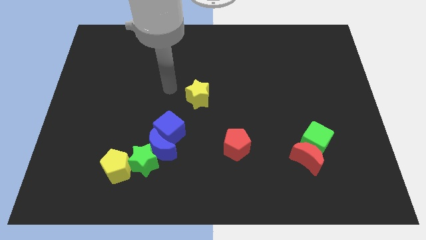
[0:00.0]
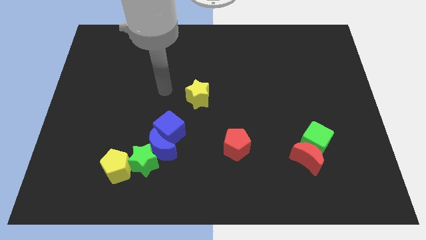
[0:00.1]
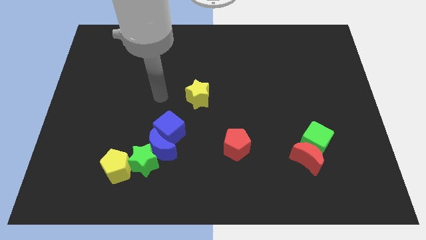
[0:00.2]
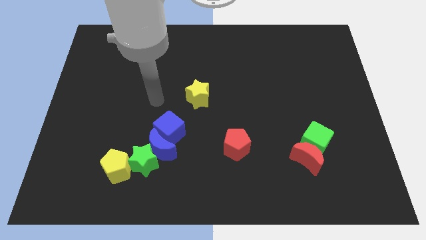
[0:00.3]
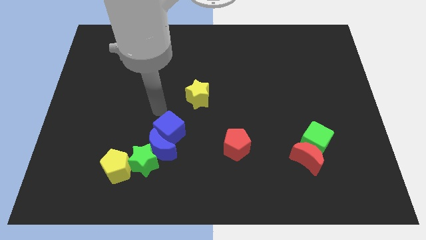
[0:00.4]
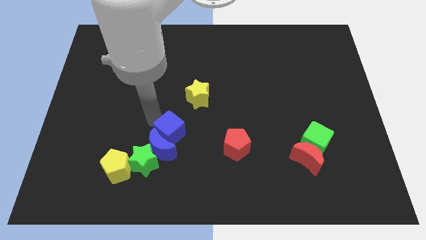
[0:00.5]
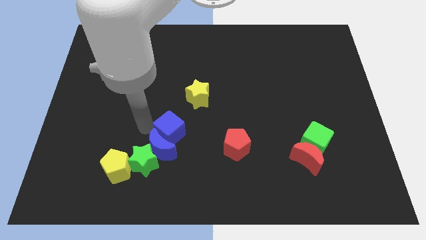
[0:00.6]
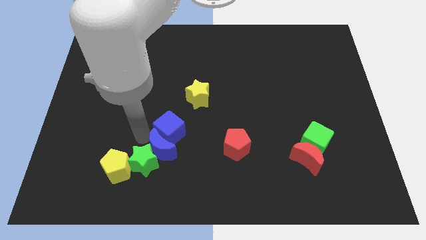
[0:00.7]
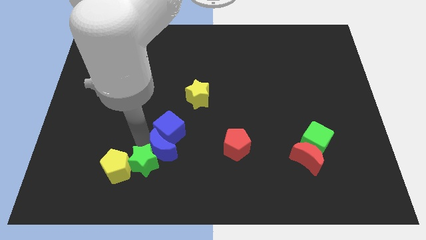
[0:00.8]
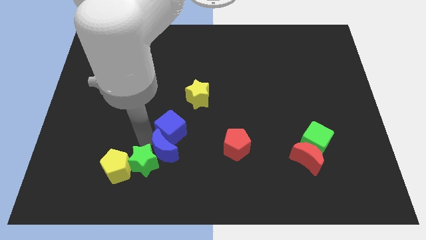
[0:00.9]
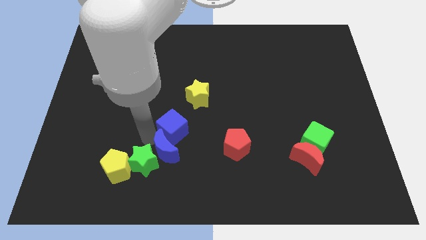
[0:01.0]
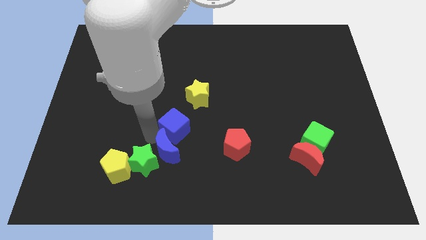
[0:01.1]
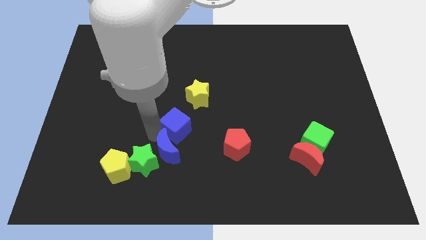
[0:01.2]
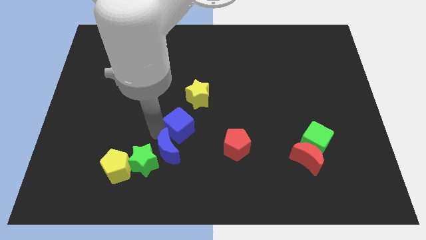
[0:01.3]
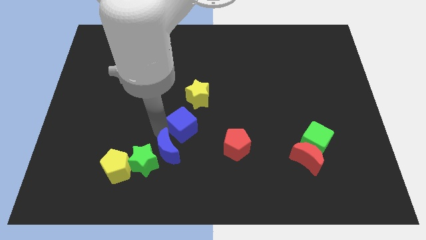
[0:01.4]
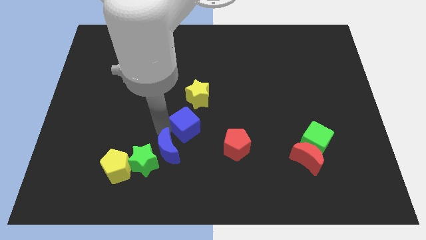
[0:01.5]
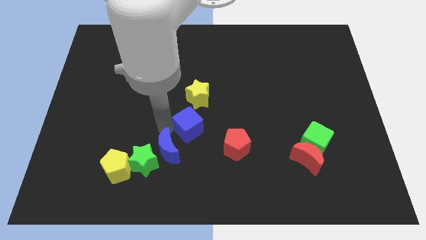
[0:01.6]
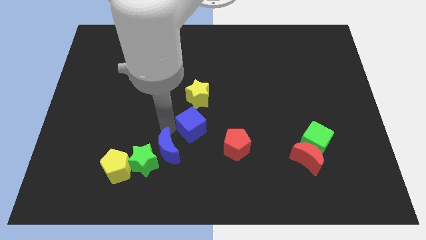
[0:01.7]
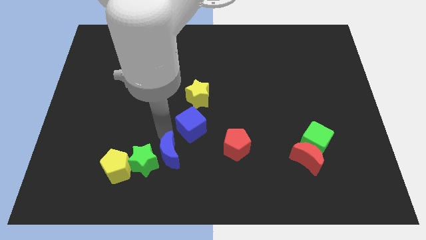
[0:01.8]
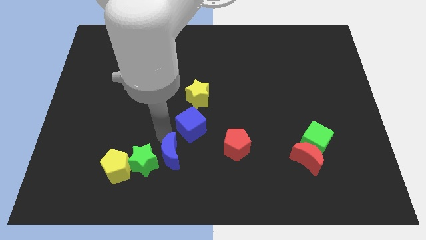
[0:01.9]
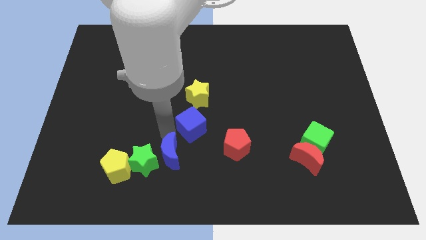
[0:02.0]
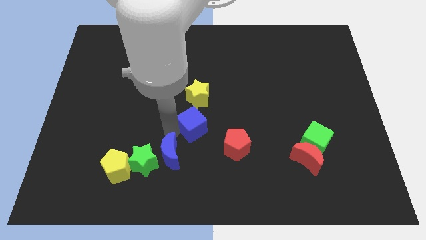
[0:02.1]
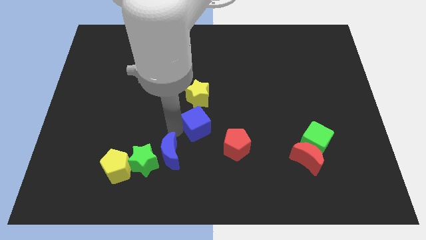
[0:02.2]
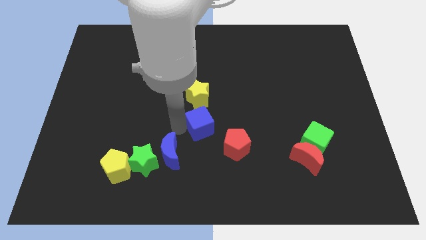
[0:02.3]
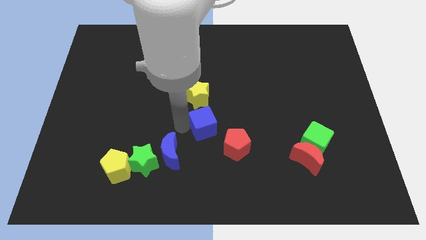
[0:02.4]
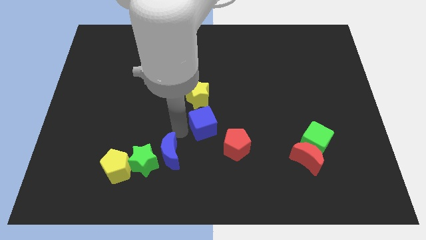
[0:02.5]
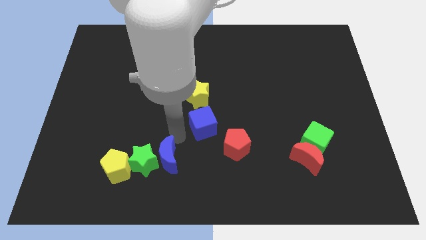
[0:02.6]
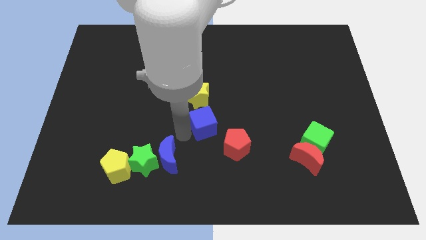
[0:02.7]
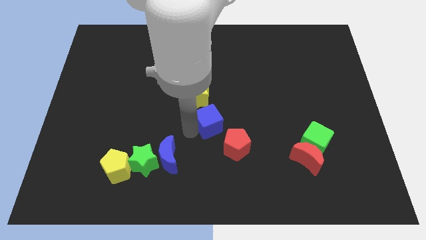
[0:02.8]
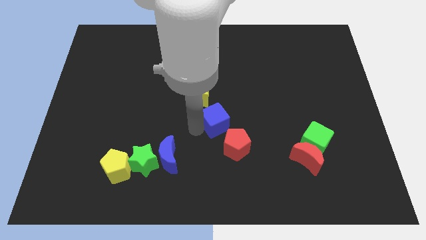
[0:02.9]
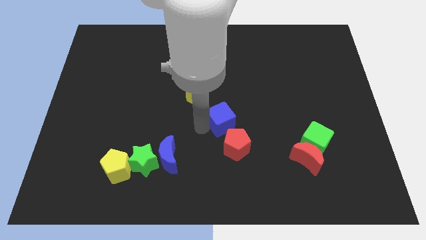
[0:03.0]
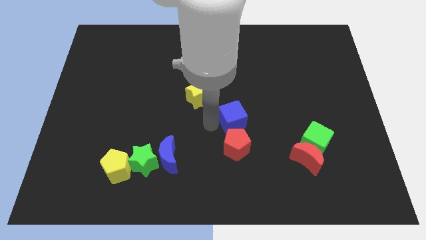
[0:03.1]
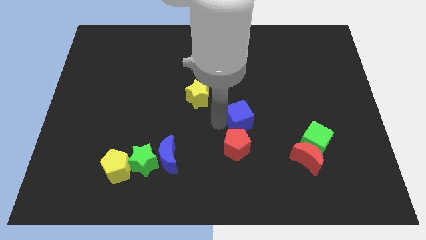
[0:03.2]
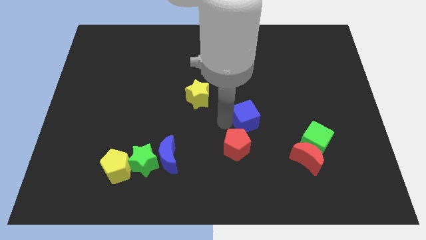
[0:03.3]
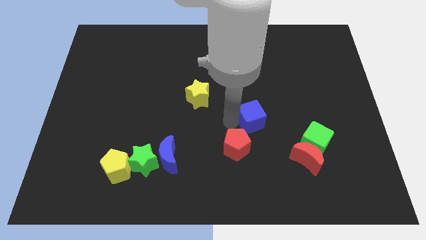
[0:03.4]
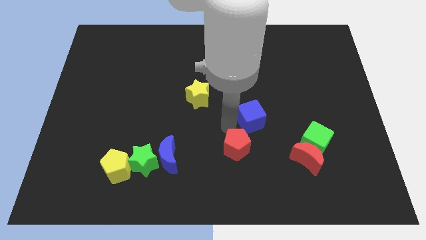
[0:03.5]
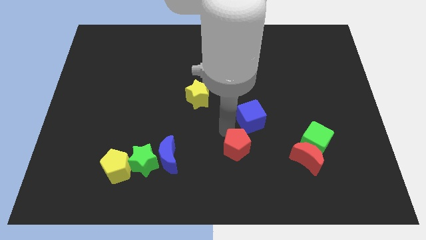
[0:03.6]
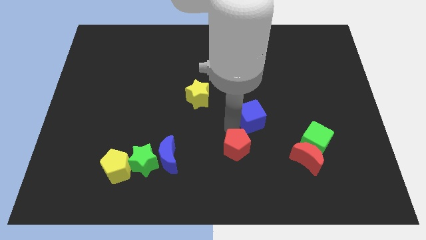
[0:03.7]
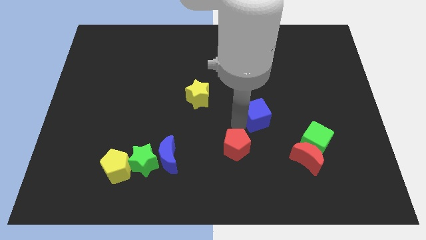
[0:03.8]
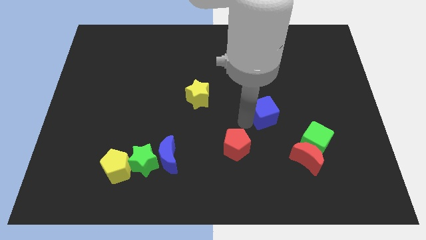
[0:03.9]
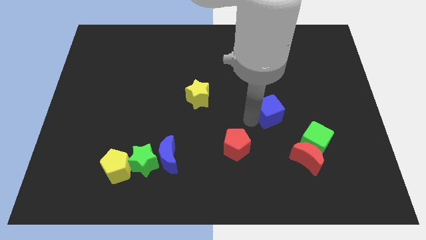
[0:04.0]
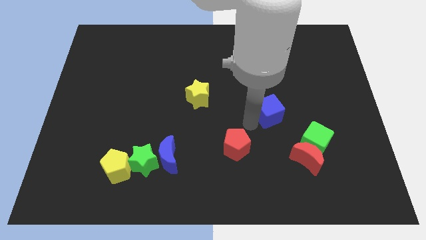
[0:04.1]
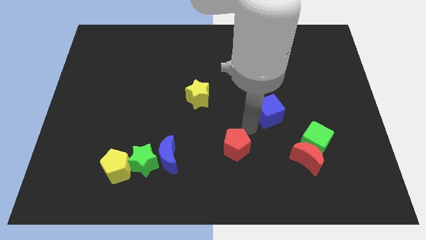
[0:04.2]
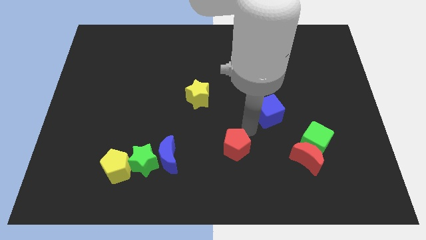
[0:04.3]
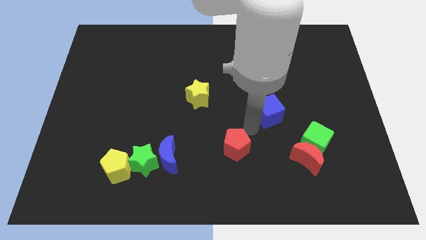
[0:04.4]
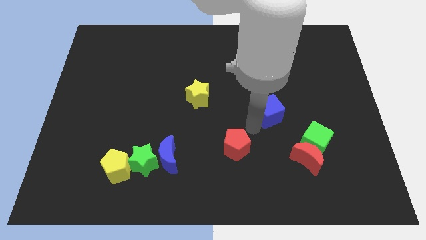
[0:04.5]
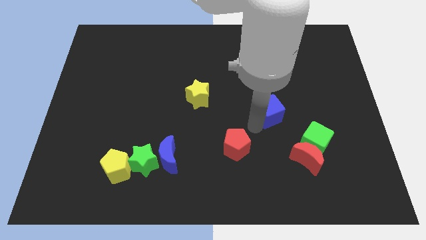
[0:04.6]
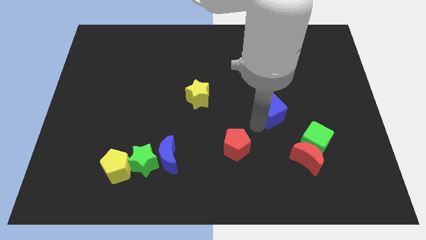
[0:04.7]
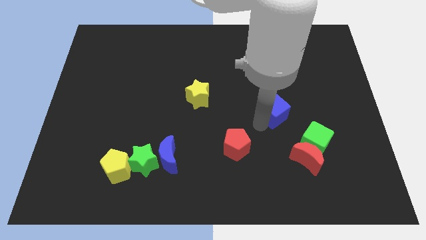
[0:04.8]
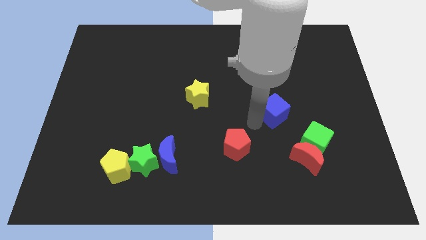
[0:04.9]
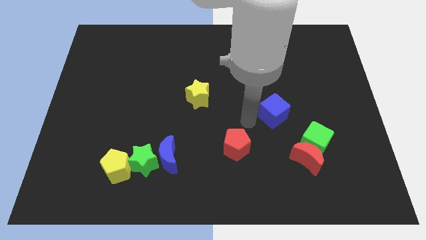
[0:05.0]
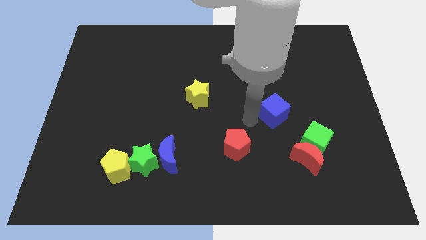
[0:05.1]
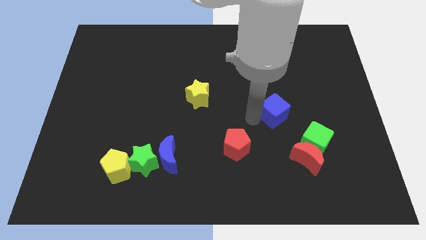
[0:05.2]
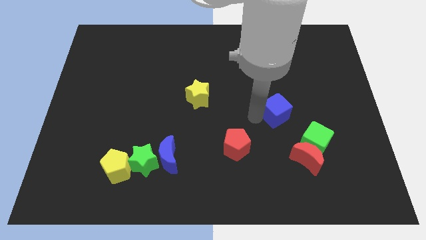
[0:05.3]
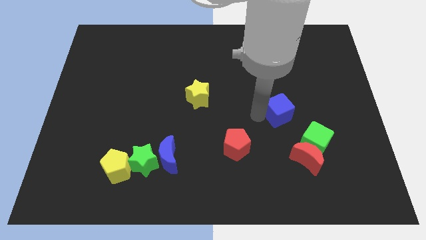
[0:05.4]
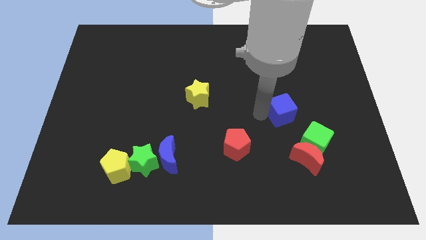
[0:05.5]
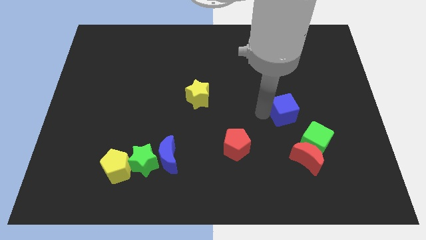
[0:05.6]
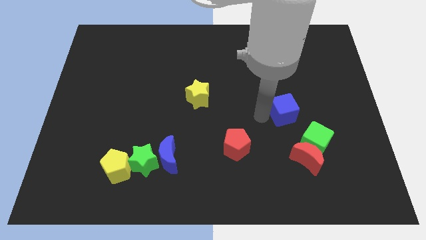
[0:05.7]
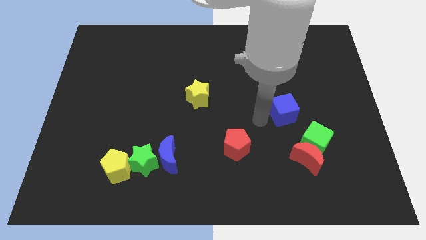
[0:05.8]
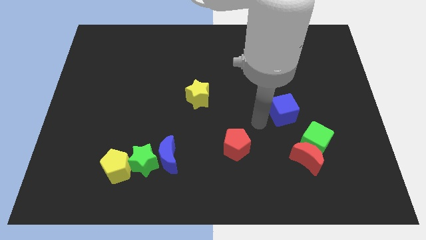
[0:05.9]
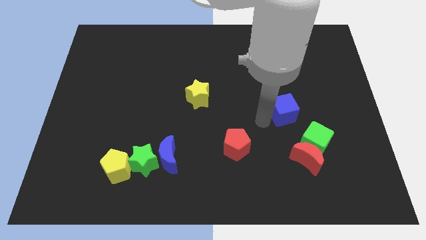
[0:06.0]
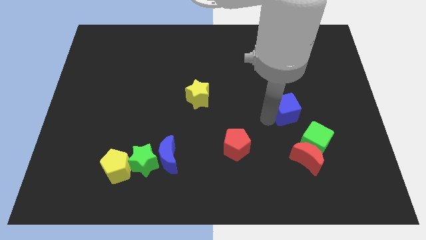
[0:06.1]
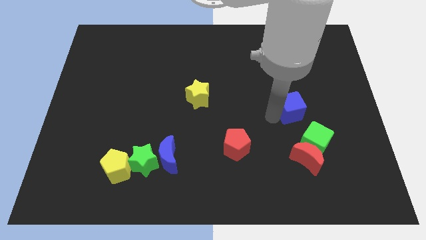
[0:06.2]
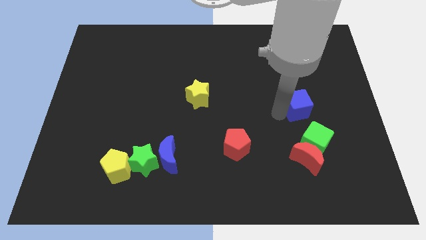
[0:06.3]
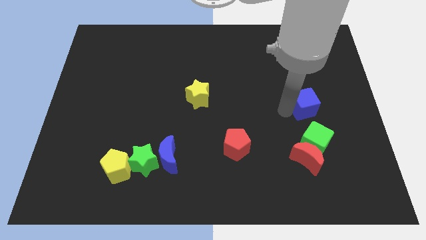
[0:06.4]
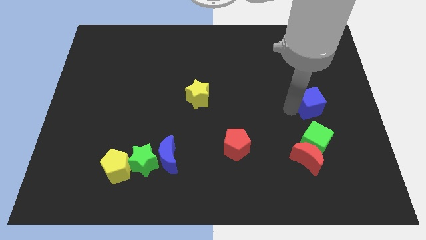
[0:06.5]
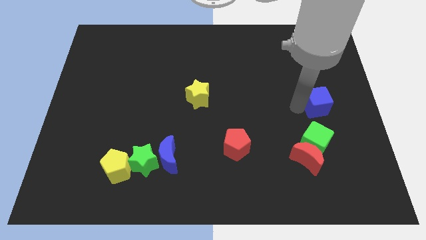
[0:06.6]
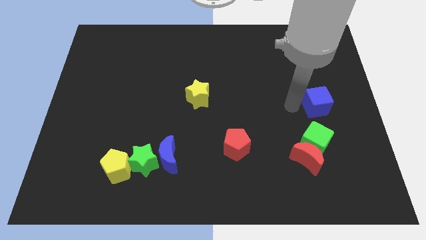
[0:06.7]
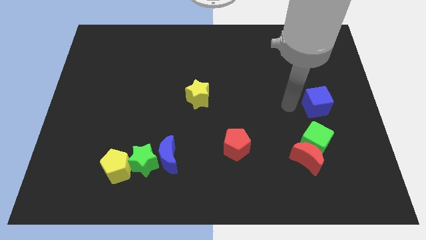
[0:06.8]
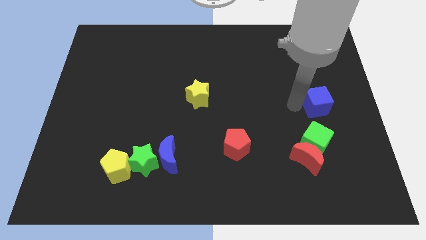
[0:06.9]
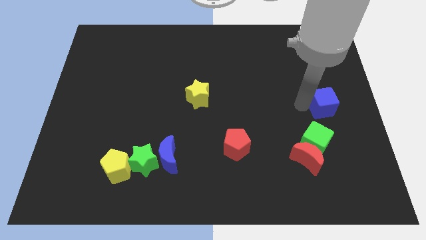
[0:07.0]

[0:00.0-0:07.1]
slide the blue cube to the right side of the board
